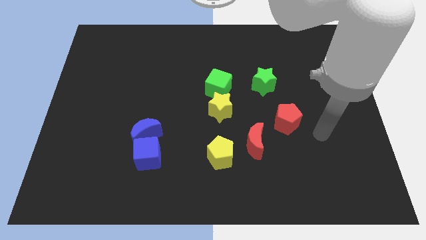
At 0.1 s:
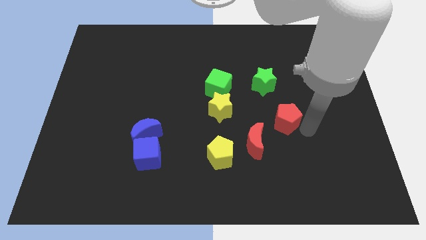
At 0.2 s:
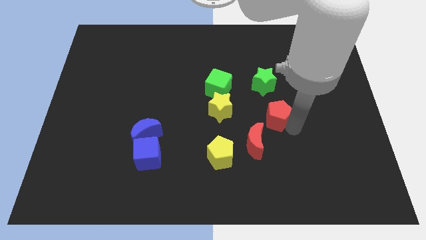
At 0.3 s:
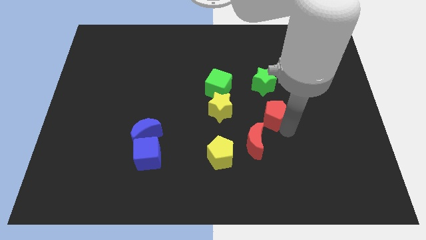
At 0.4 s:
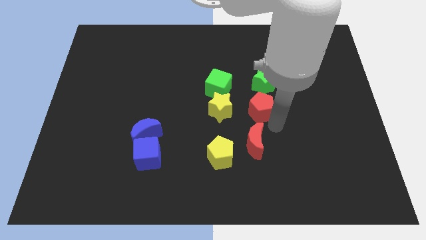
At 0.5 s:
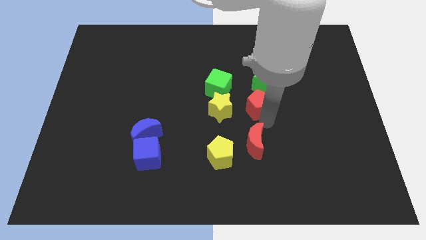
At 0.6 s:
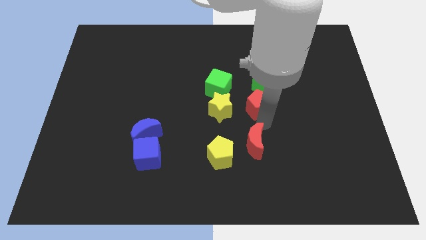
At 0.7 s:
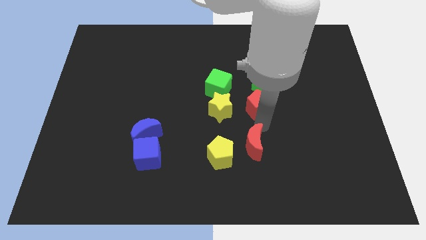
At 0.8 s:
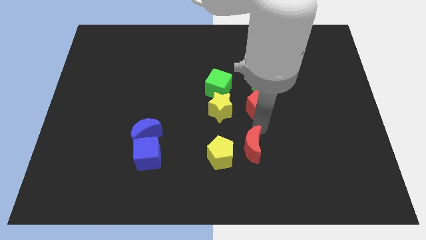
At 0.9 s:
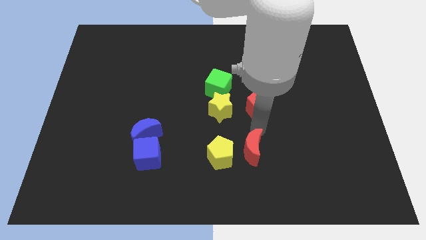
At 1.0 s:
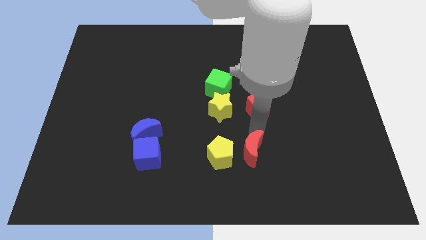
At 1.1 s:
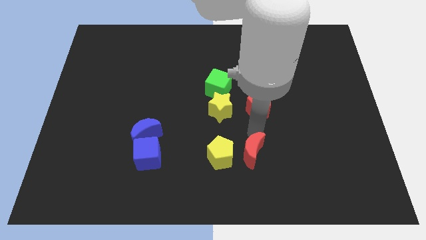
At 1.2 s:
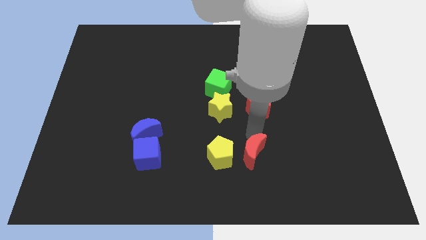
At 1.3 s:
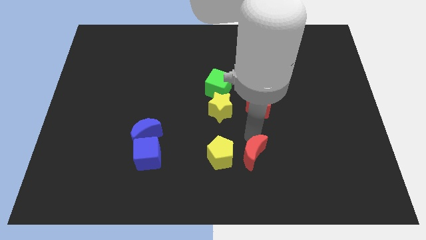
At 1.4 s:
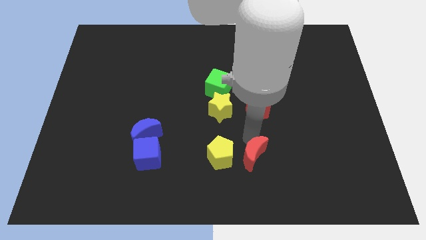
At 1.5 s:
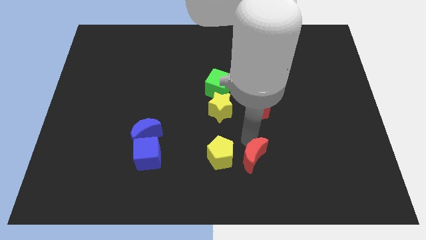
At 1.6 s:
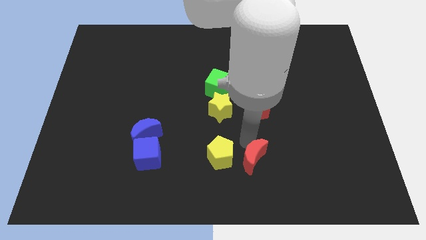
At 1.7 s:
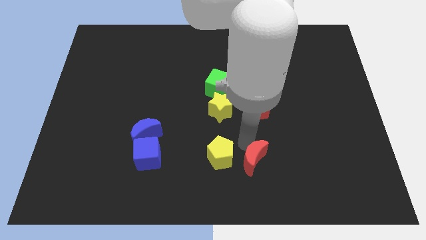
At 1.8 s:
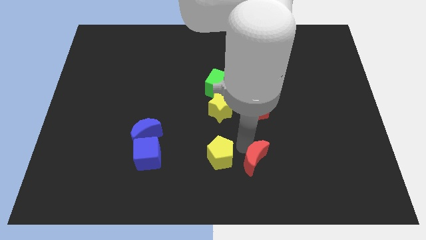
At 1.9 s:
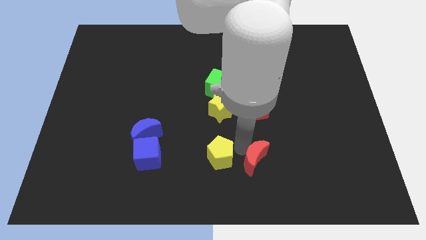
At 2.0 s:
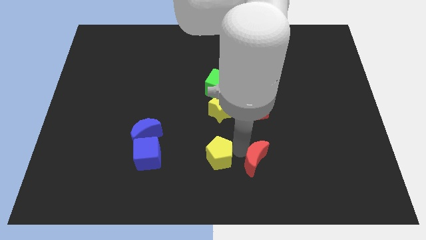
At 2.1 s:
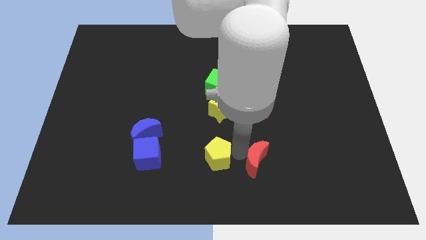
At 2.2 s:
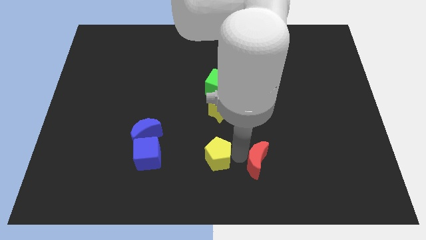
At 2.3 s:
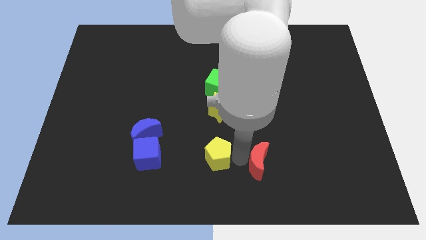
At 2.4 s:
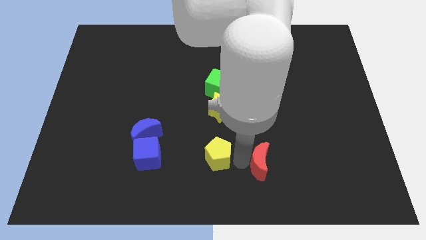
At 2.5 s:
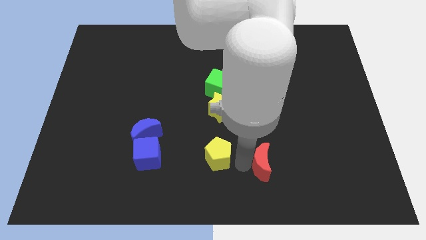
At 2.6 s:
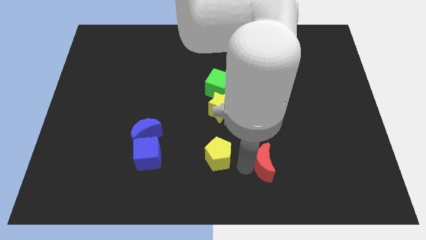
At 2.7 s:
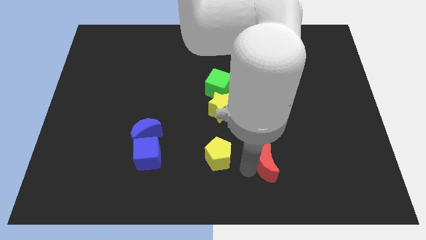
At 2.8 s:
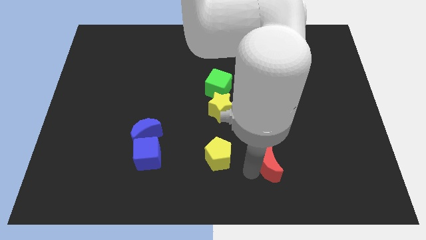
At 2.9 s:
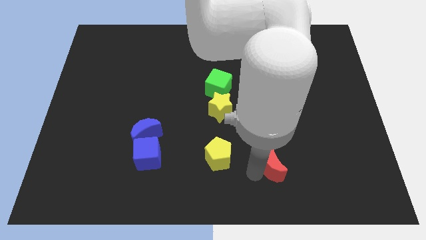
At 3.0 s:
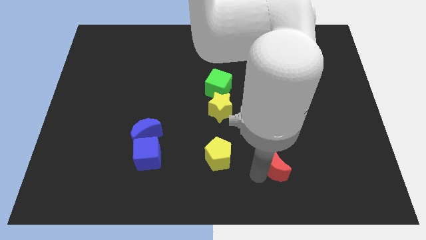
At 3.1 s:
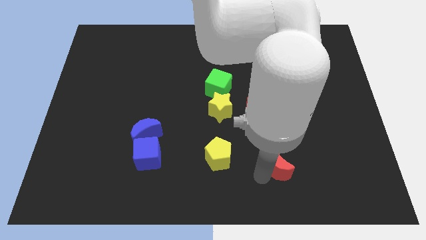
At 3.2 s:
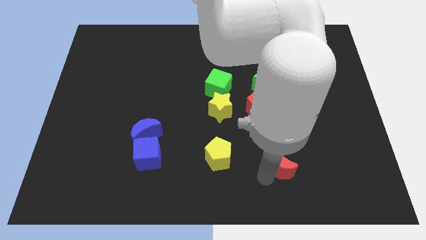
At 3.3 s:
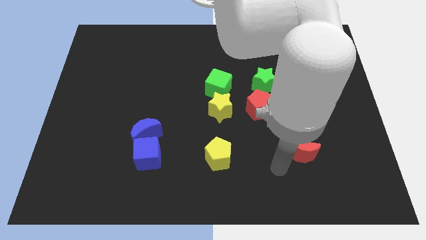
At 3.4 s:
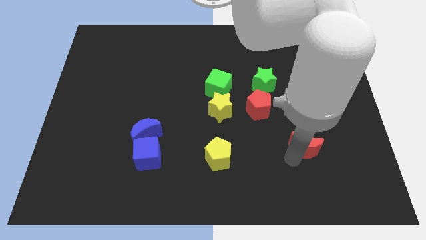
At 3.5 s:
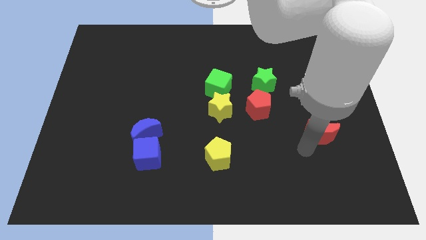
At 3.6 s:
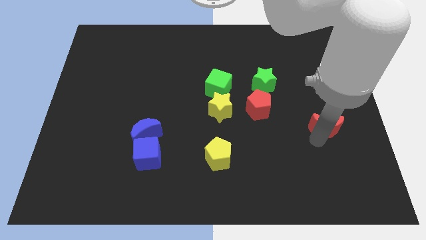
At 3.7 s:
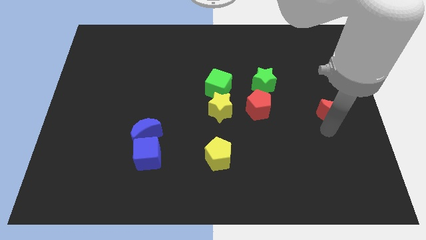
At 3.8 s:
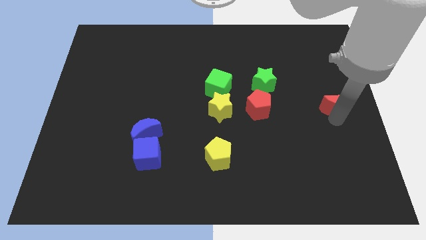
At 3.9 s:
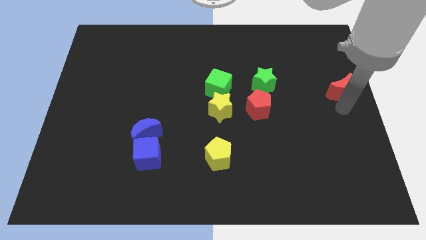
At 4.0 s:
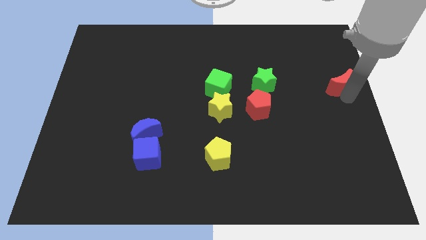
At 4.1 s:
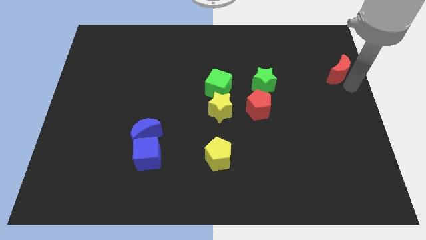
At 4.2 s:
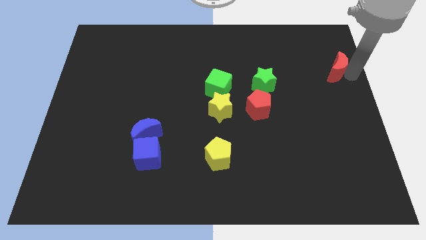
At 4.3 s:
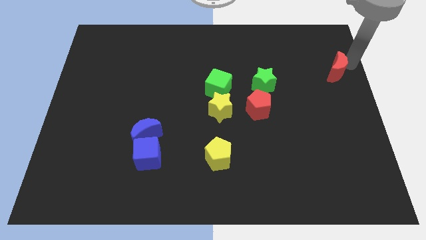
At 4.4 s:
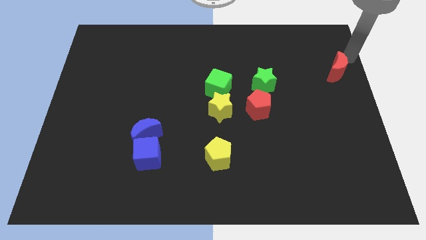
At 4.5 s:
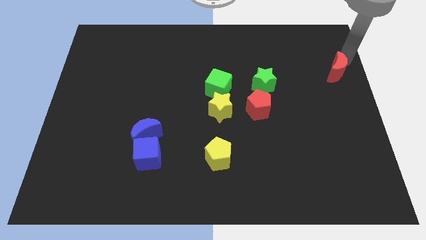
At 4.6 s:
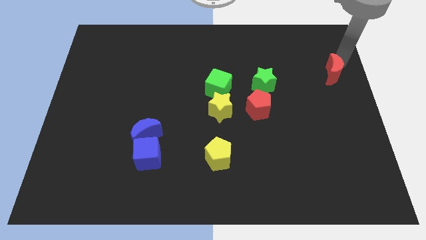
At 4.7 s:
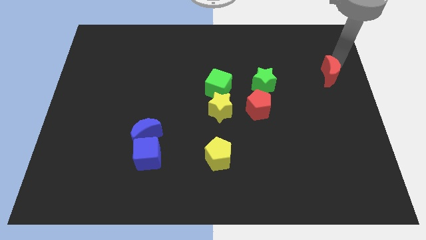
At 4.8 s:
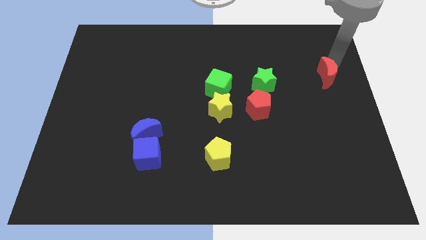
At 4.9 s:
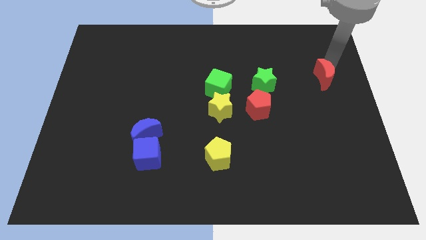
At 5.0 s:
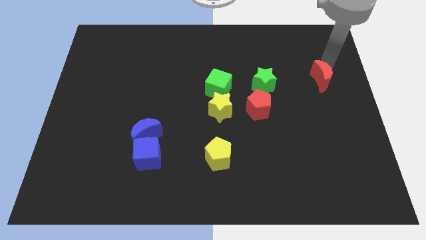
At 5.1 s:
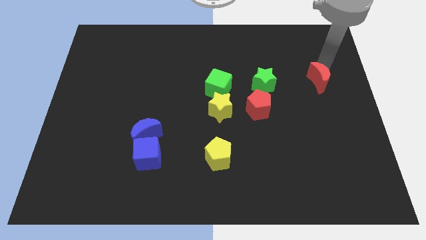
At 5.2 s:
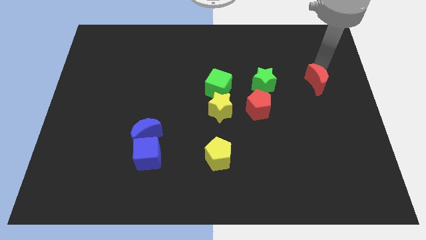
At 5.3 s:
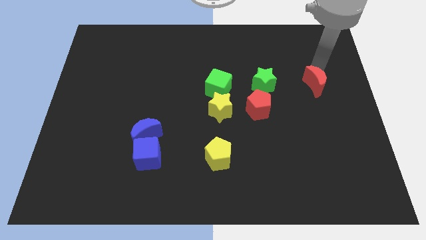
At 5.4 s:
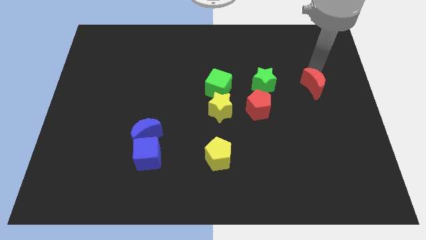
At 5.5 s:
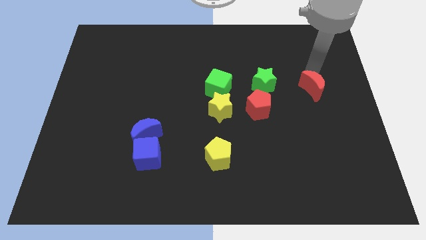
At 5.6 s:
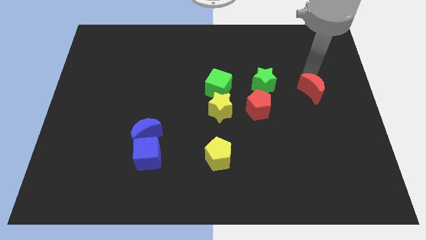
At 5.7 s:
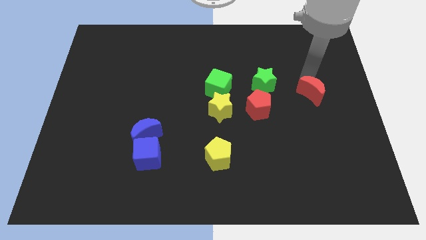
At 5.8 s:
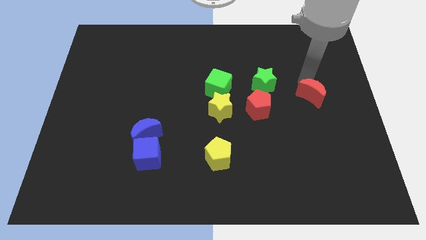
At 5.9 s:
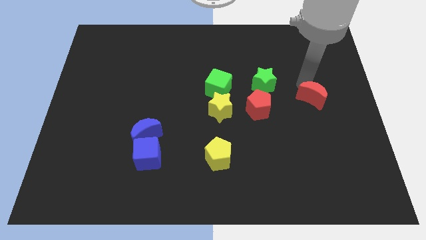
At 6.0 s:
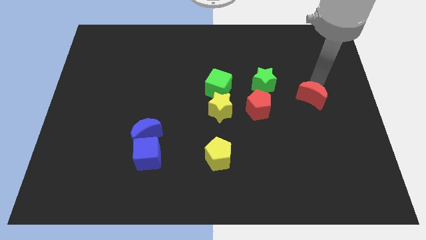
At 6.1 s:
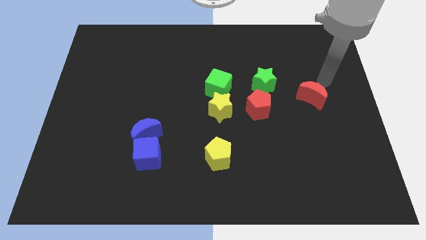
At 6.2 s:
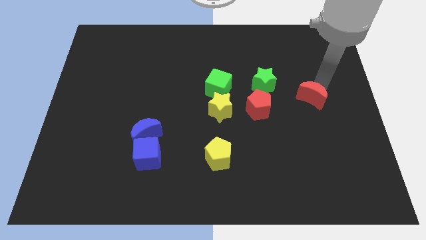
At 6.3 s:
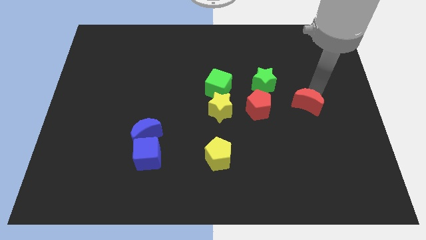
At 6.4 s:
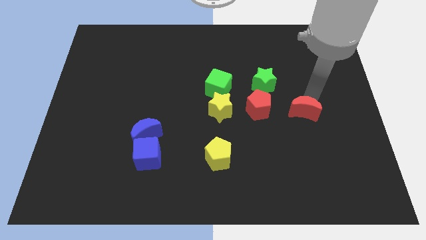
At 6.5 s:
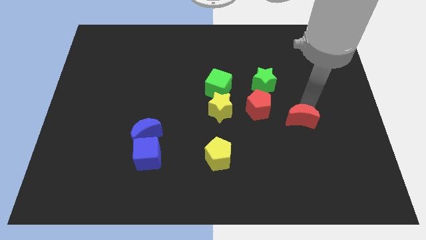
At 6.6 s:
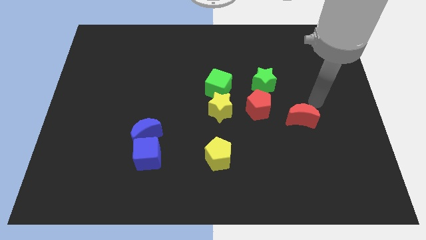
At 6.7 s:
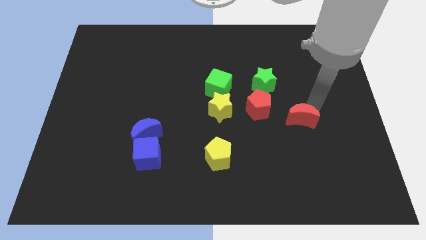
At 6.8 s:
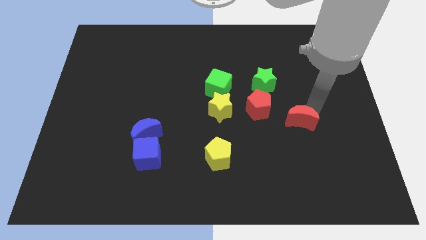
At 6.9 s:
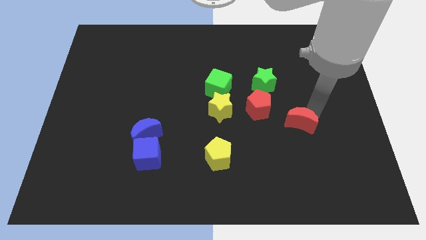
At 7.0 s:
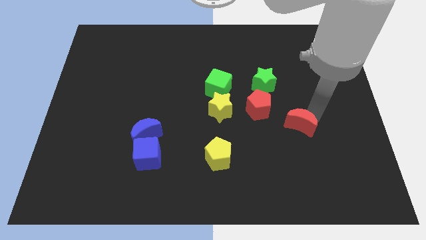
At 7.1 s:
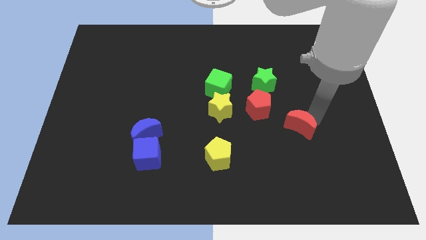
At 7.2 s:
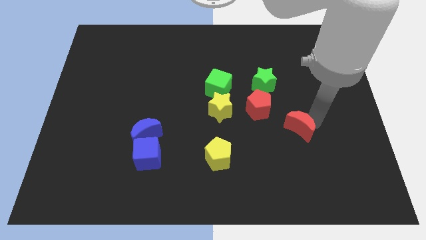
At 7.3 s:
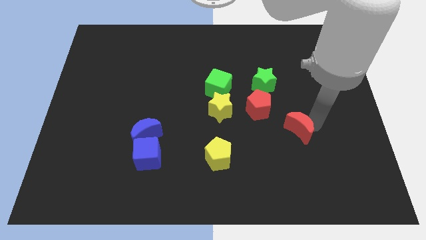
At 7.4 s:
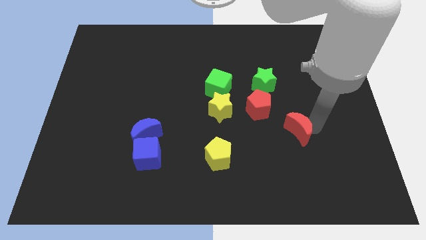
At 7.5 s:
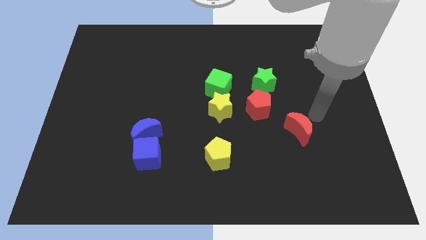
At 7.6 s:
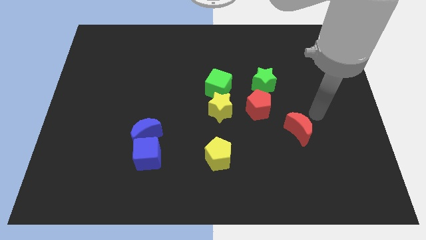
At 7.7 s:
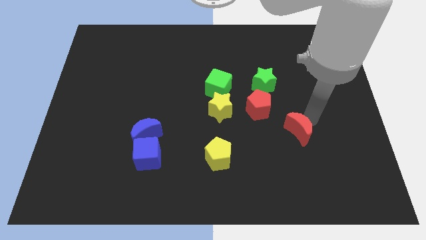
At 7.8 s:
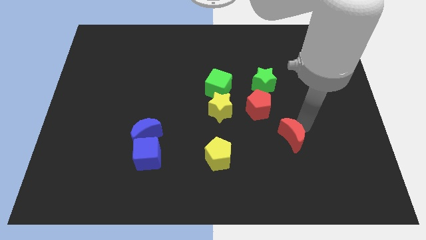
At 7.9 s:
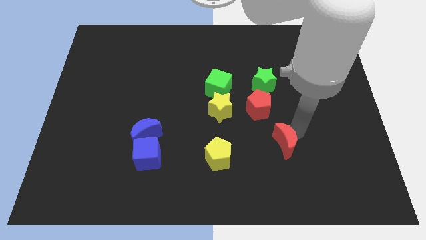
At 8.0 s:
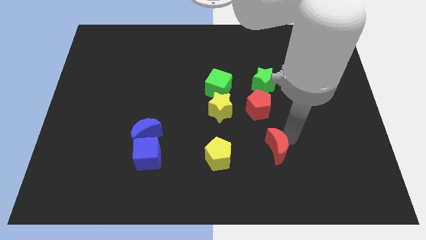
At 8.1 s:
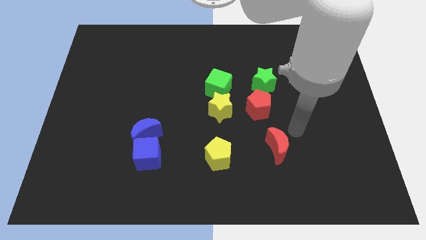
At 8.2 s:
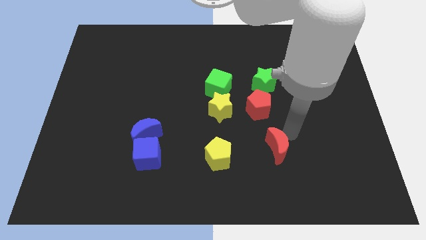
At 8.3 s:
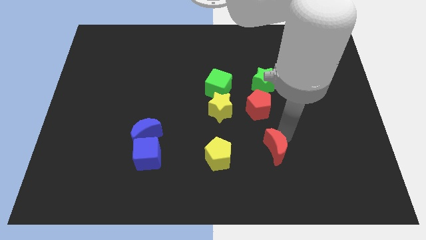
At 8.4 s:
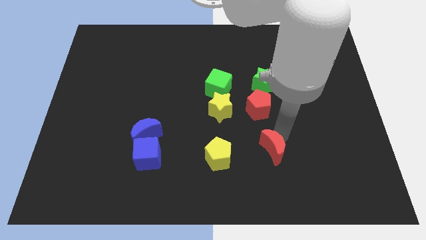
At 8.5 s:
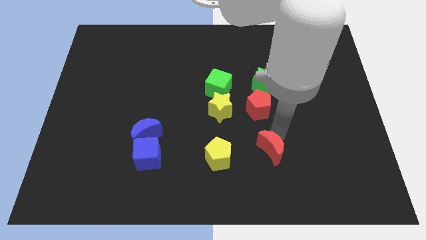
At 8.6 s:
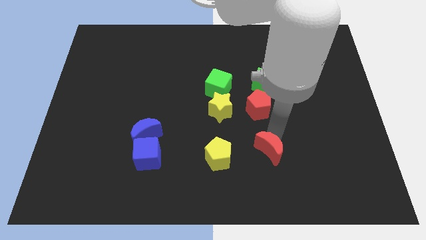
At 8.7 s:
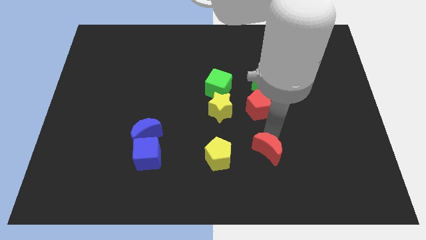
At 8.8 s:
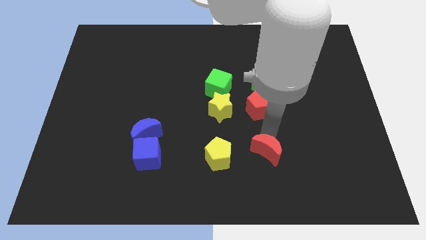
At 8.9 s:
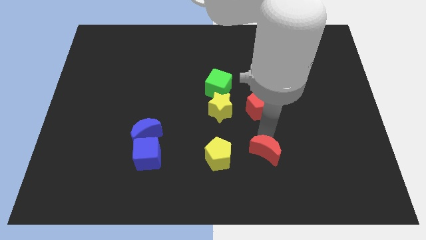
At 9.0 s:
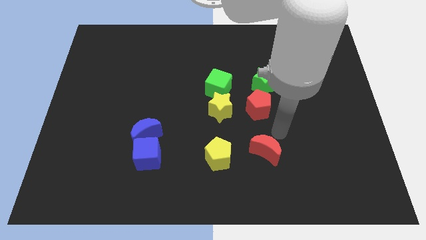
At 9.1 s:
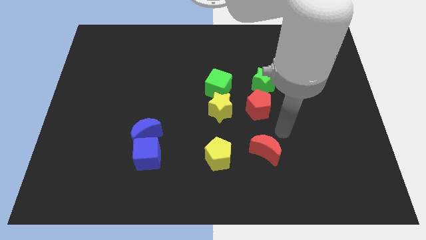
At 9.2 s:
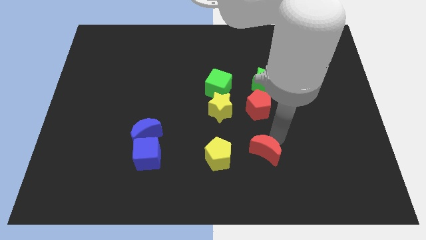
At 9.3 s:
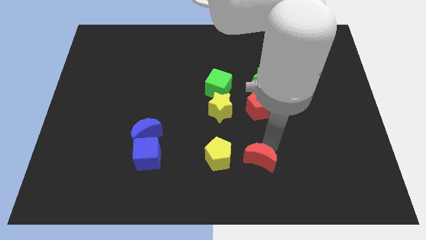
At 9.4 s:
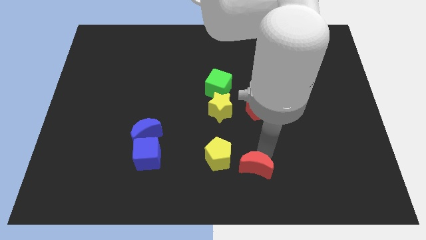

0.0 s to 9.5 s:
move the red moon to the bottom
